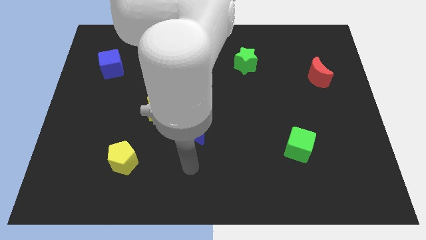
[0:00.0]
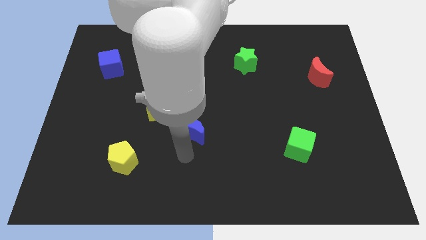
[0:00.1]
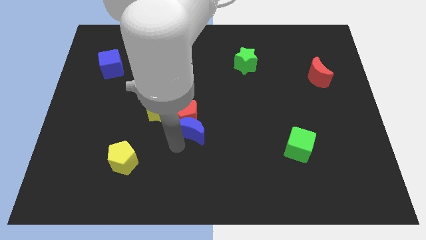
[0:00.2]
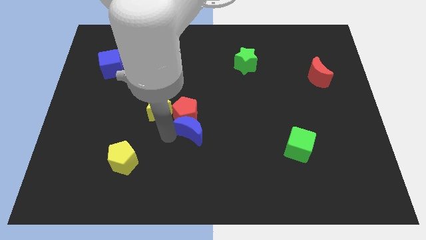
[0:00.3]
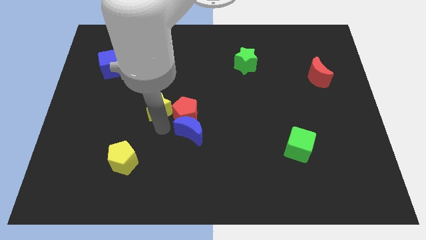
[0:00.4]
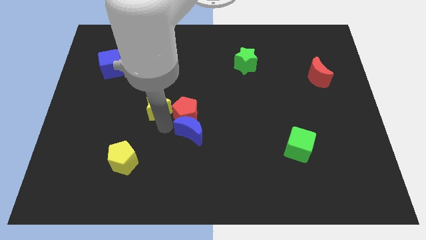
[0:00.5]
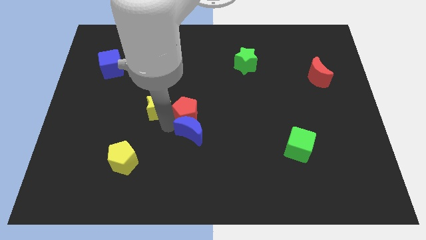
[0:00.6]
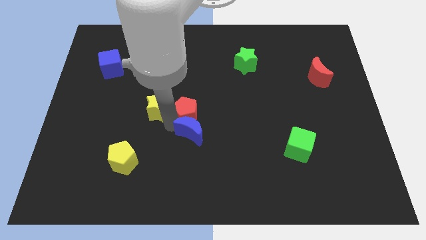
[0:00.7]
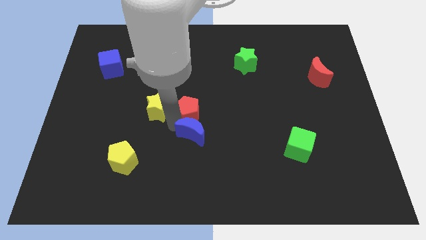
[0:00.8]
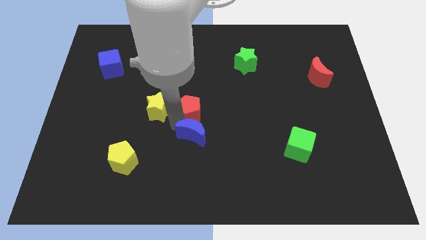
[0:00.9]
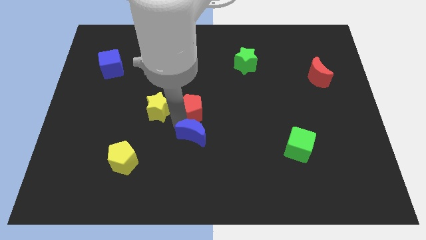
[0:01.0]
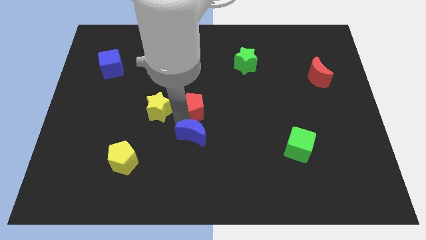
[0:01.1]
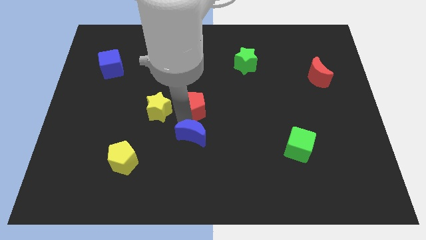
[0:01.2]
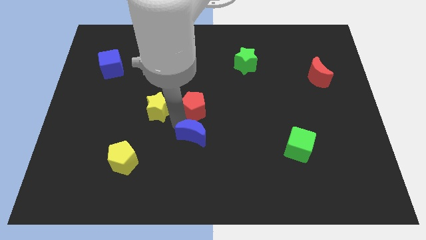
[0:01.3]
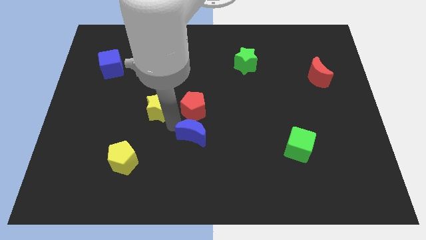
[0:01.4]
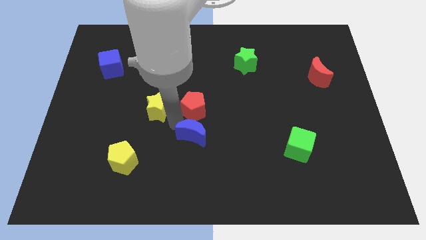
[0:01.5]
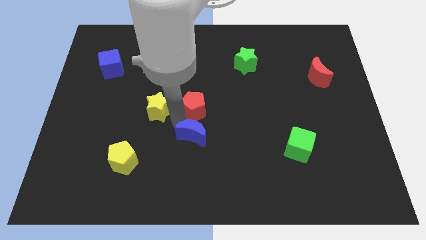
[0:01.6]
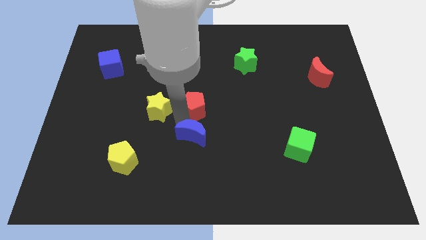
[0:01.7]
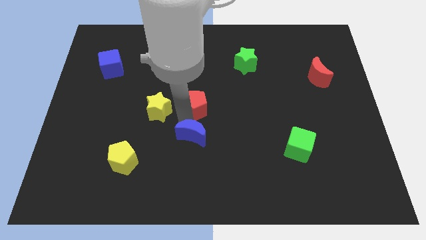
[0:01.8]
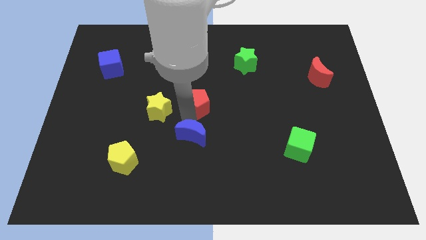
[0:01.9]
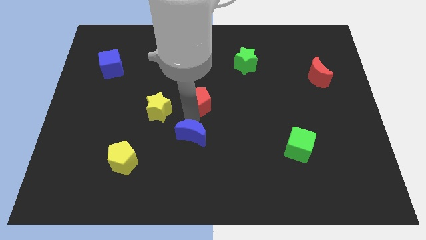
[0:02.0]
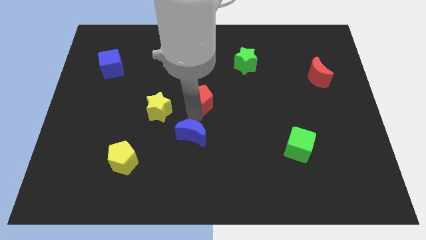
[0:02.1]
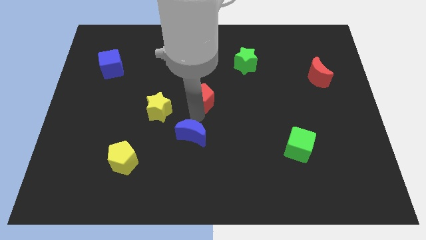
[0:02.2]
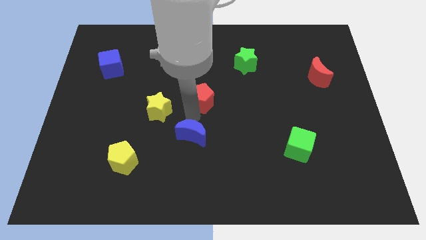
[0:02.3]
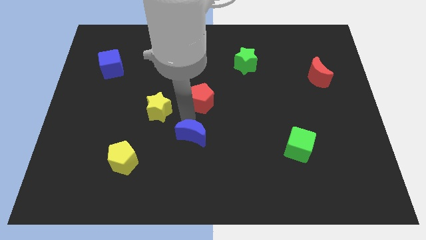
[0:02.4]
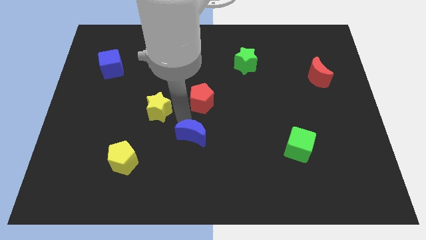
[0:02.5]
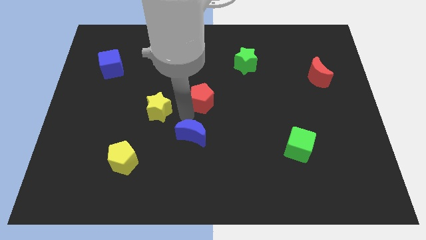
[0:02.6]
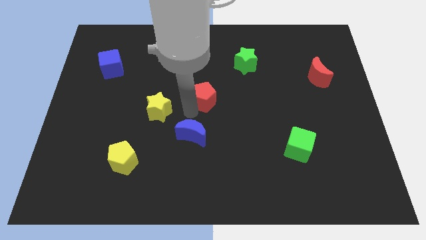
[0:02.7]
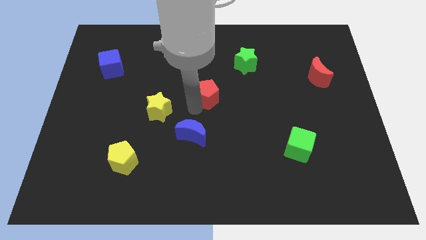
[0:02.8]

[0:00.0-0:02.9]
pull the red pentagon apart from the blue moon and yellow star

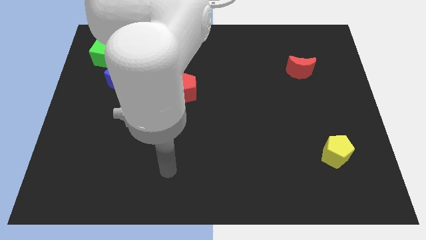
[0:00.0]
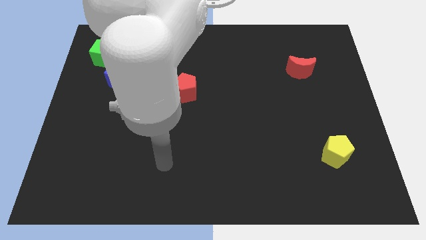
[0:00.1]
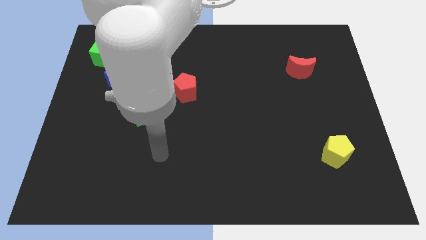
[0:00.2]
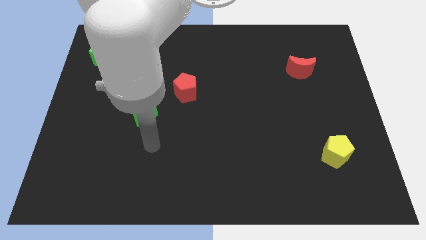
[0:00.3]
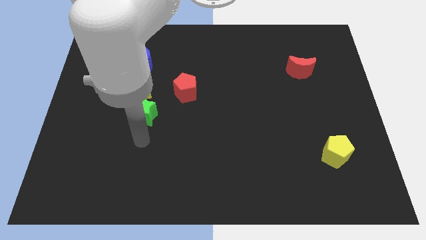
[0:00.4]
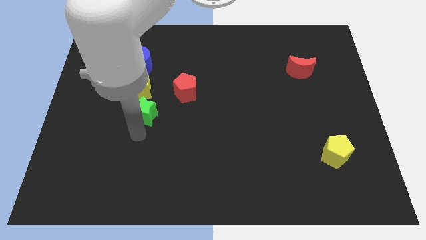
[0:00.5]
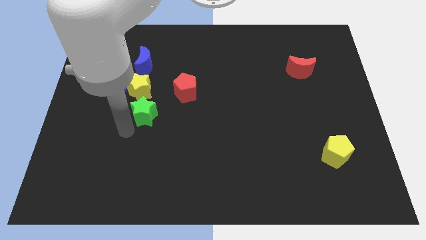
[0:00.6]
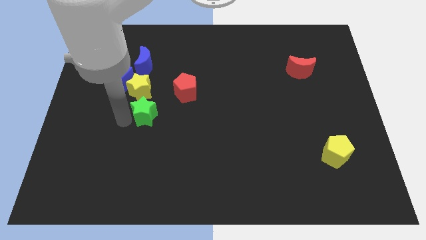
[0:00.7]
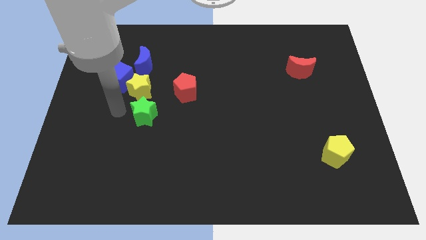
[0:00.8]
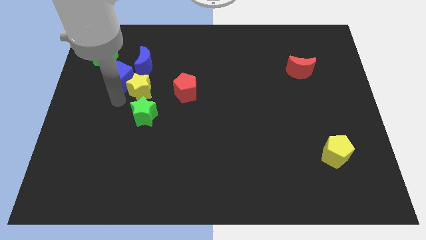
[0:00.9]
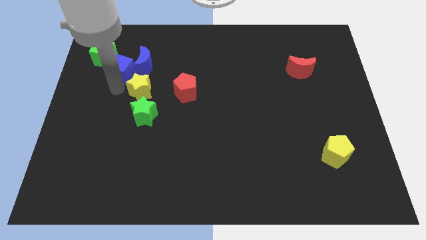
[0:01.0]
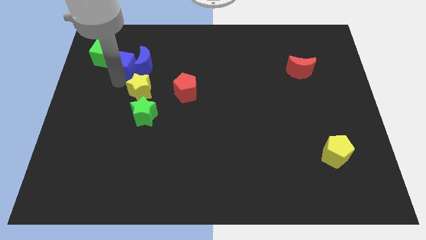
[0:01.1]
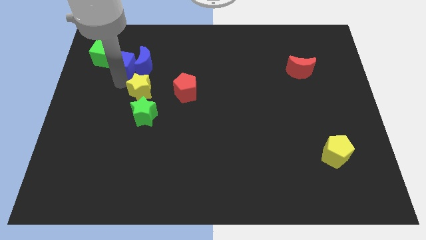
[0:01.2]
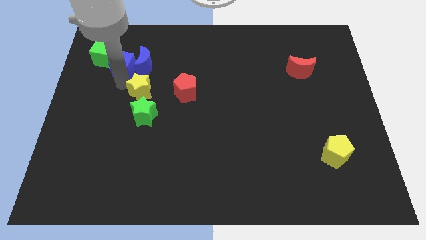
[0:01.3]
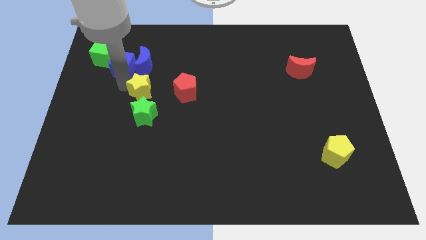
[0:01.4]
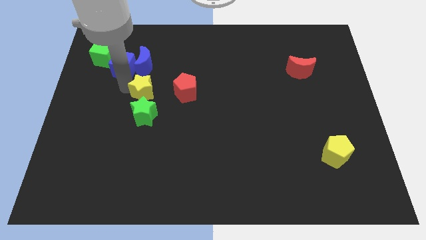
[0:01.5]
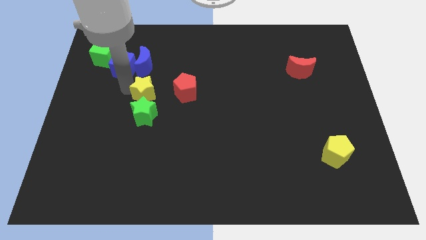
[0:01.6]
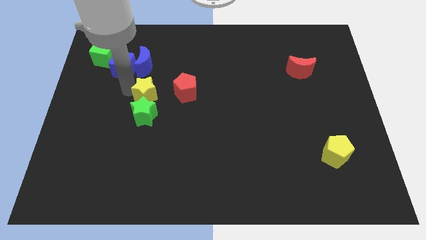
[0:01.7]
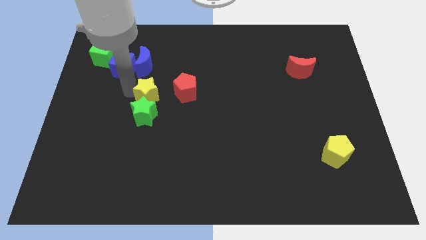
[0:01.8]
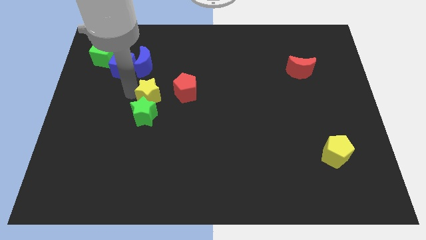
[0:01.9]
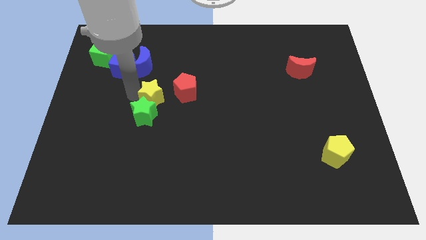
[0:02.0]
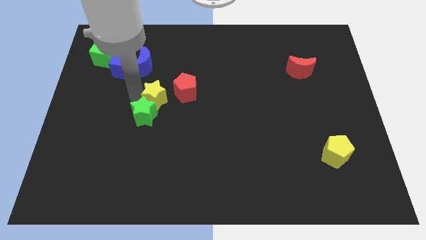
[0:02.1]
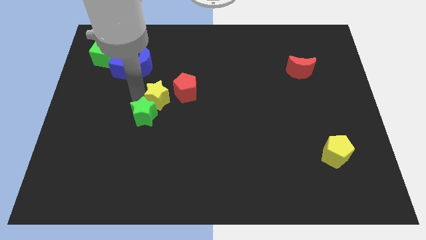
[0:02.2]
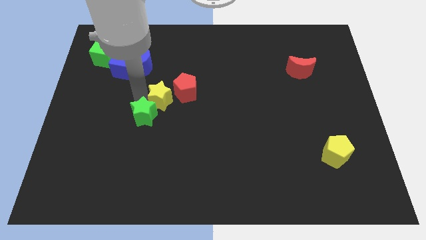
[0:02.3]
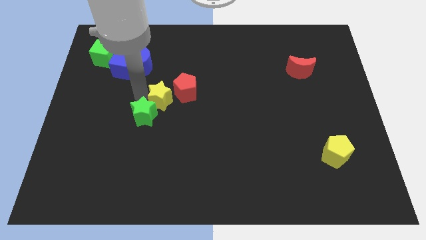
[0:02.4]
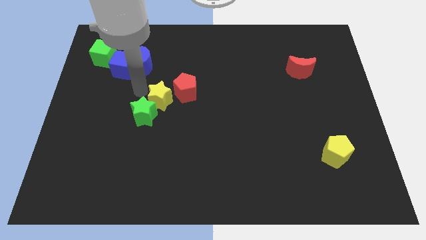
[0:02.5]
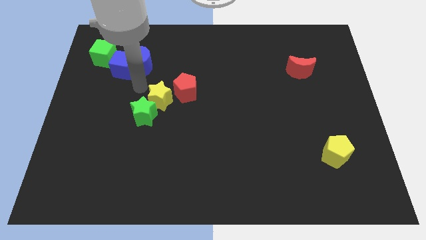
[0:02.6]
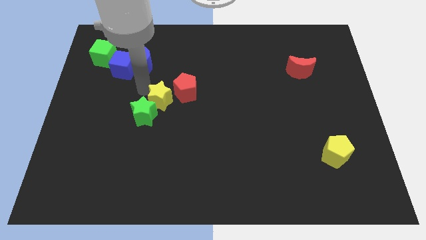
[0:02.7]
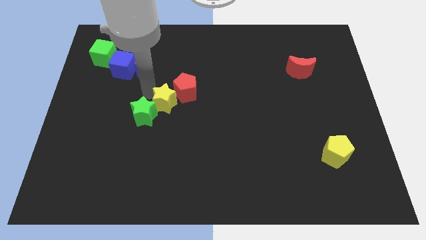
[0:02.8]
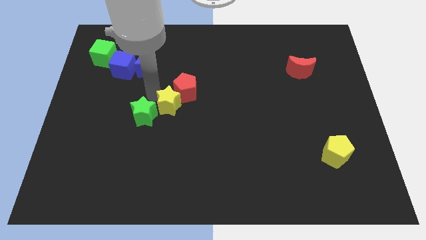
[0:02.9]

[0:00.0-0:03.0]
pull the yellow star apart from the clump

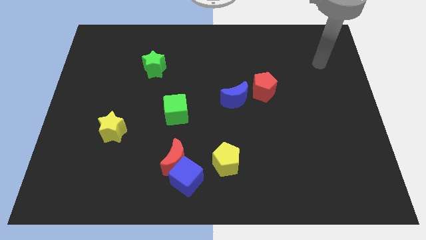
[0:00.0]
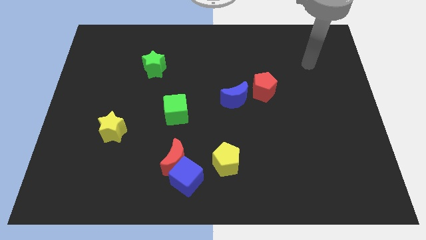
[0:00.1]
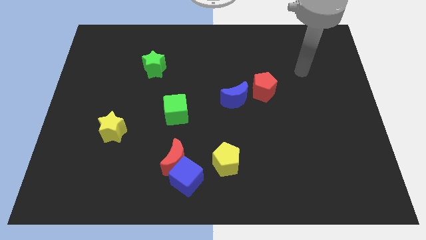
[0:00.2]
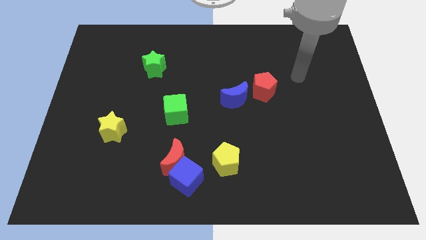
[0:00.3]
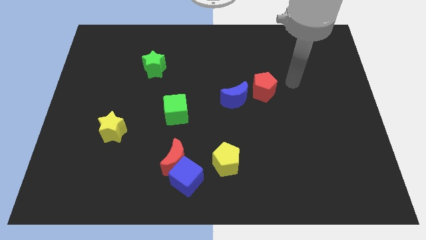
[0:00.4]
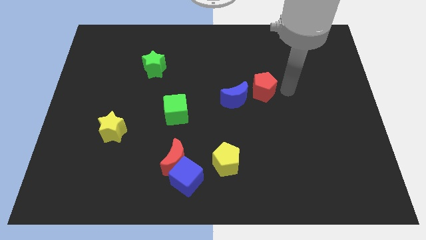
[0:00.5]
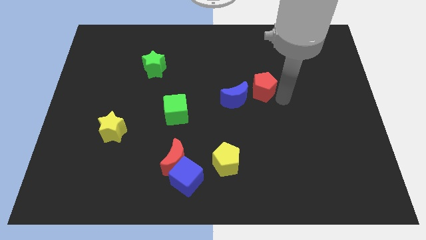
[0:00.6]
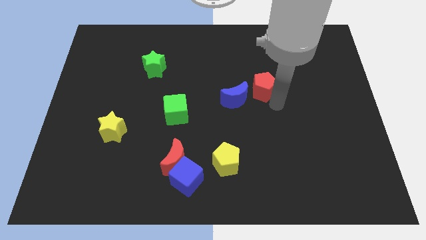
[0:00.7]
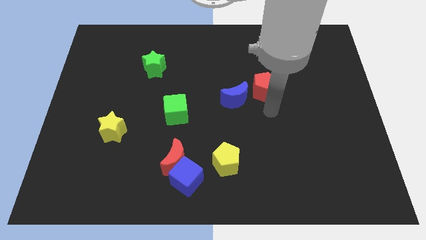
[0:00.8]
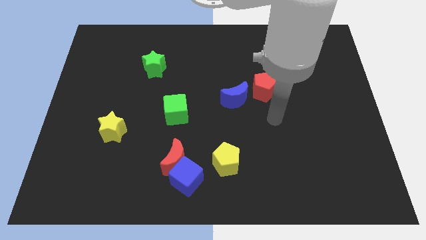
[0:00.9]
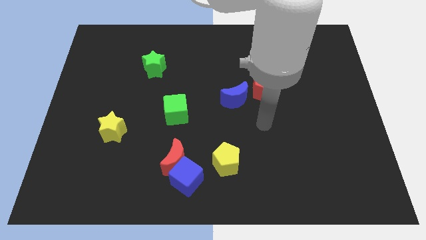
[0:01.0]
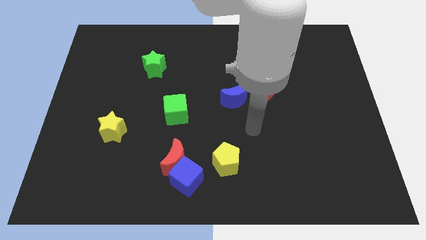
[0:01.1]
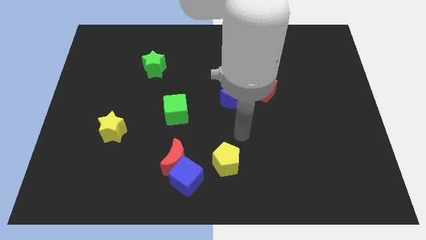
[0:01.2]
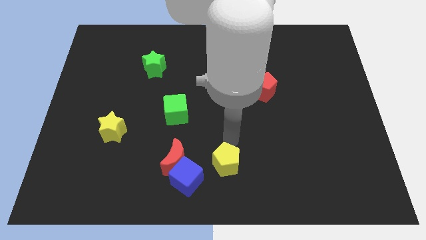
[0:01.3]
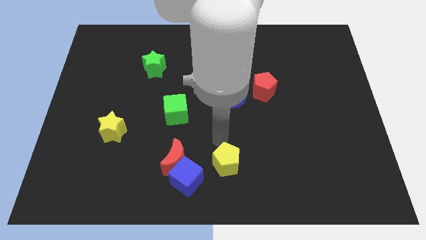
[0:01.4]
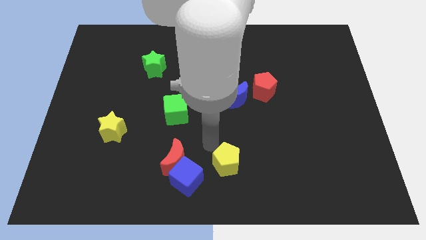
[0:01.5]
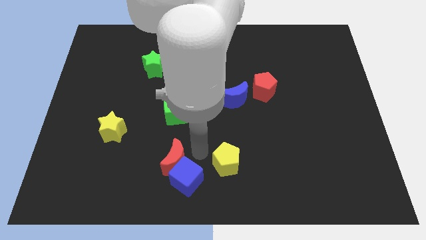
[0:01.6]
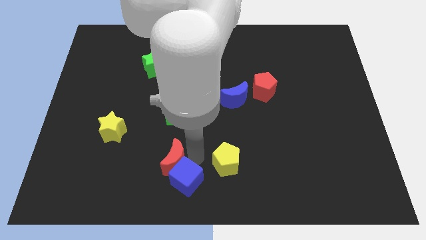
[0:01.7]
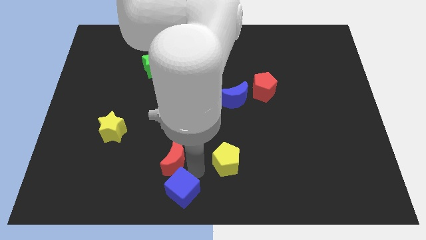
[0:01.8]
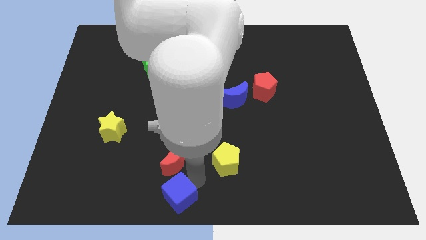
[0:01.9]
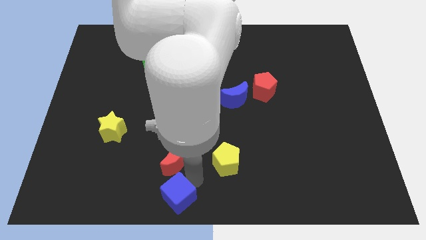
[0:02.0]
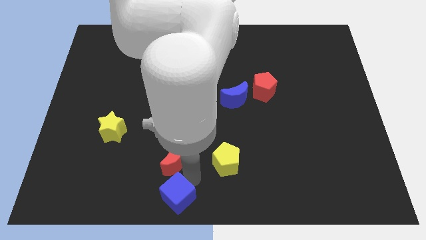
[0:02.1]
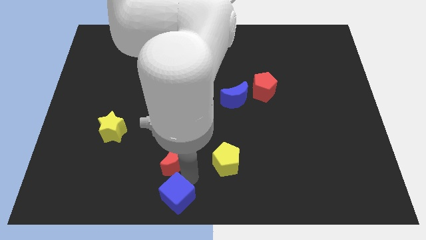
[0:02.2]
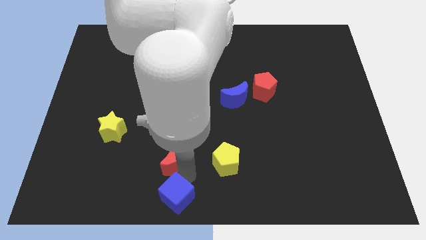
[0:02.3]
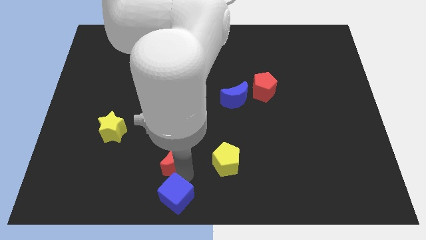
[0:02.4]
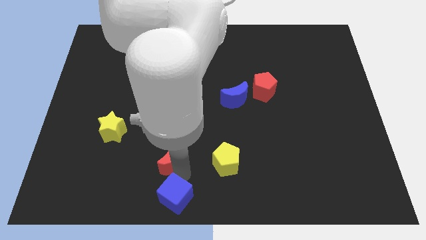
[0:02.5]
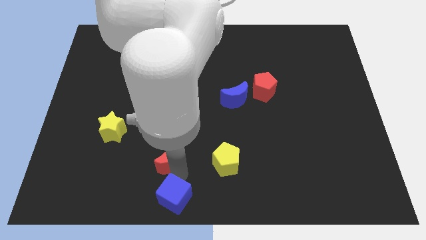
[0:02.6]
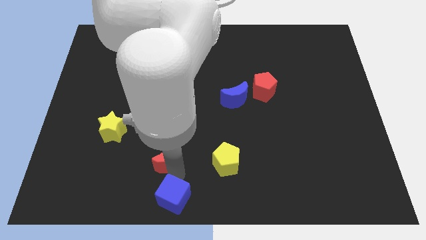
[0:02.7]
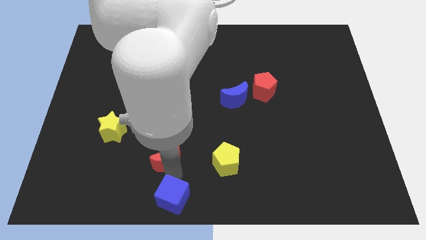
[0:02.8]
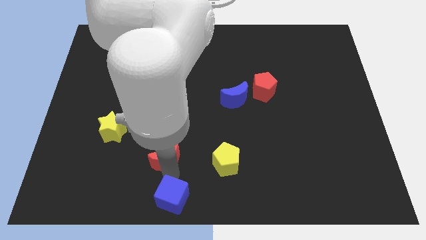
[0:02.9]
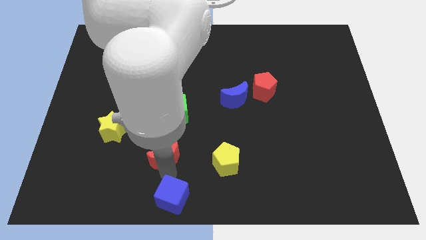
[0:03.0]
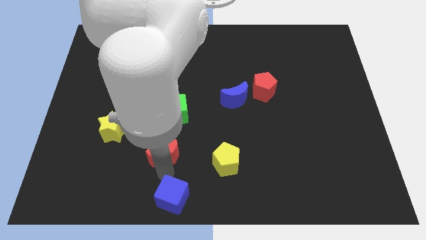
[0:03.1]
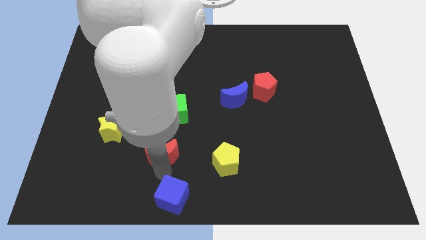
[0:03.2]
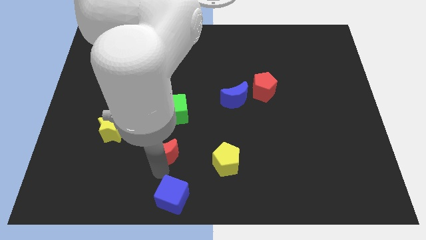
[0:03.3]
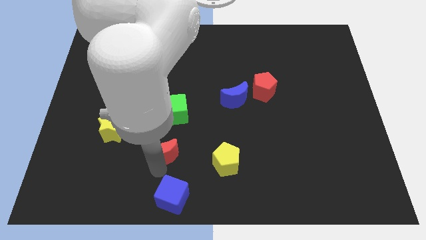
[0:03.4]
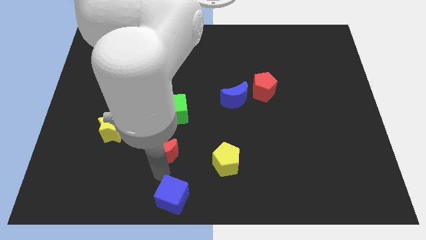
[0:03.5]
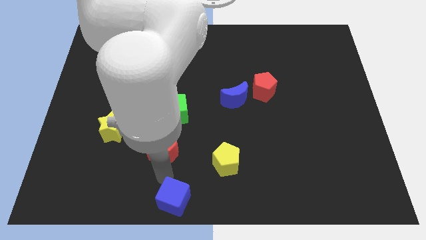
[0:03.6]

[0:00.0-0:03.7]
move the red moon away from the blue cube
